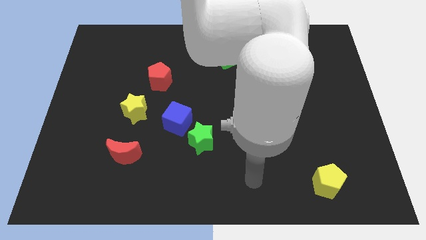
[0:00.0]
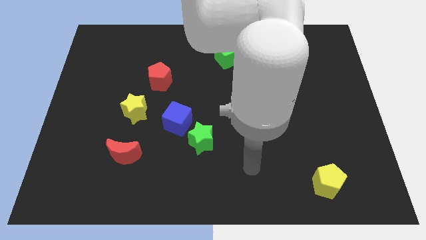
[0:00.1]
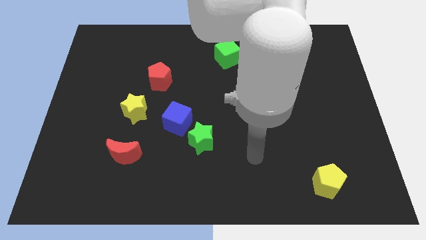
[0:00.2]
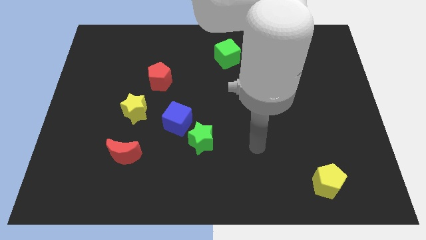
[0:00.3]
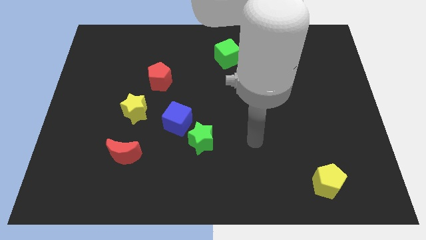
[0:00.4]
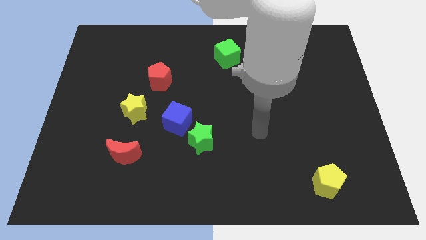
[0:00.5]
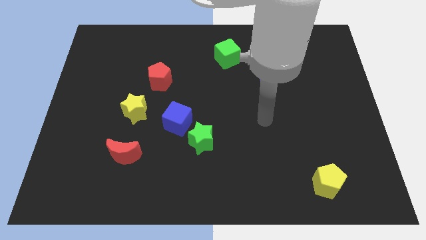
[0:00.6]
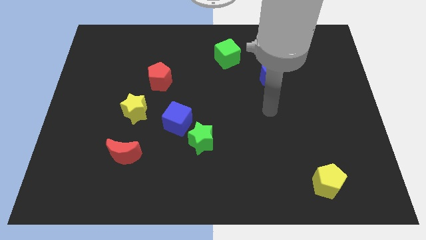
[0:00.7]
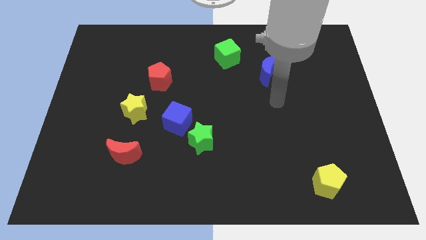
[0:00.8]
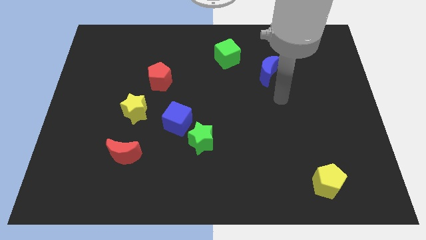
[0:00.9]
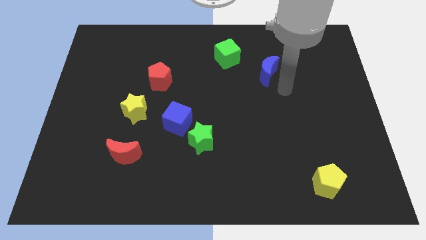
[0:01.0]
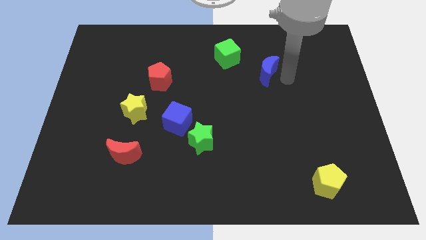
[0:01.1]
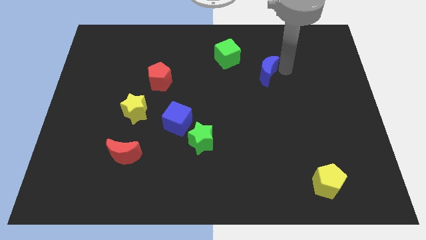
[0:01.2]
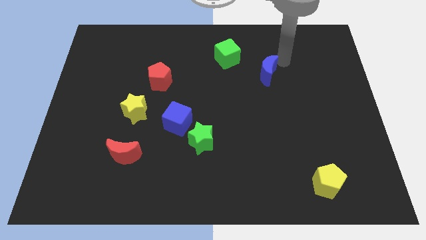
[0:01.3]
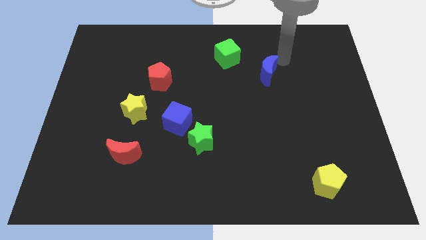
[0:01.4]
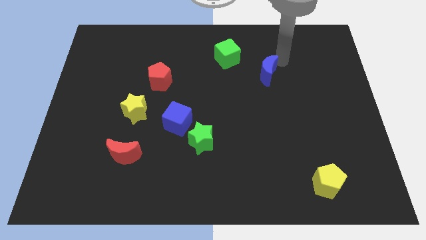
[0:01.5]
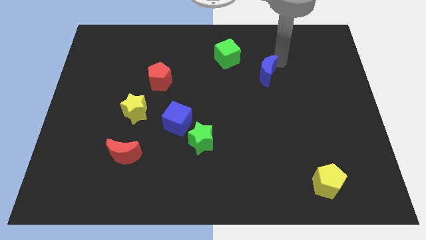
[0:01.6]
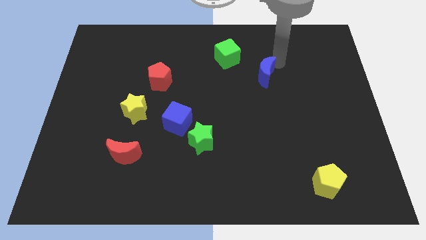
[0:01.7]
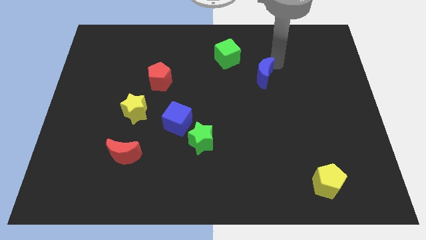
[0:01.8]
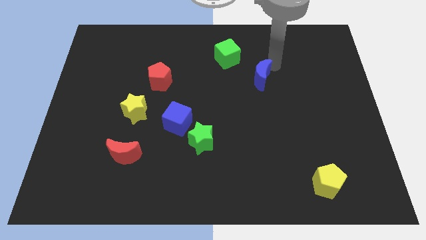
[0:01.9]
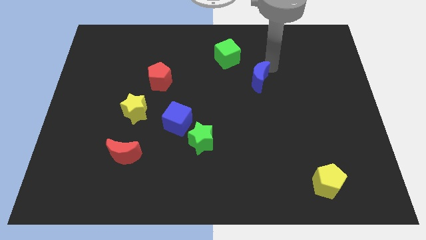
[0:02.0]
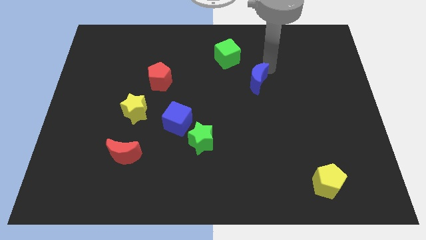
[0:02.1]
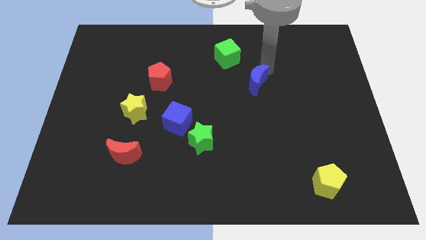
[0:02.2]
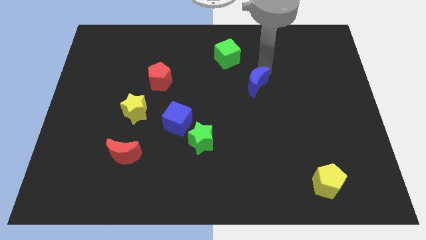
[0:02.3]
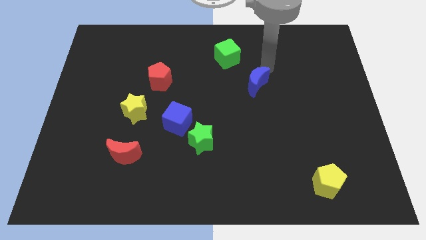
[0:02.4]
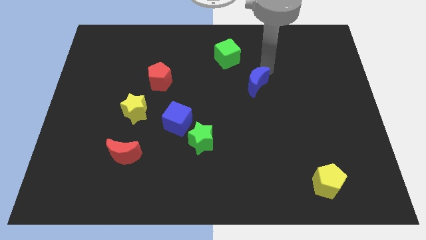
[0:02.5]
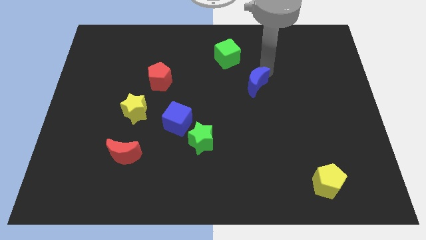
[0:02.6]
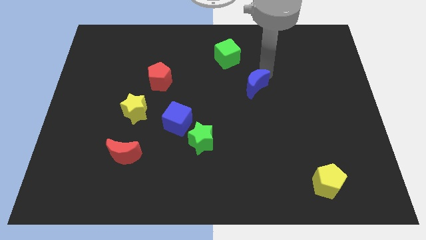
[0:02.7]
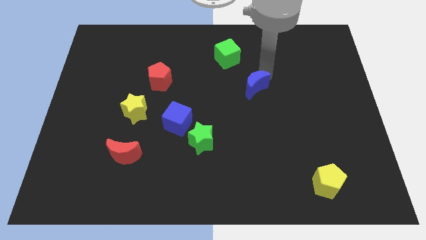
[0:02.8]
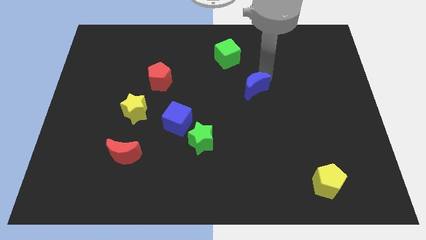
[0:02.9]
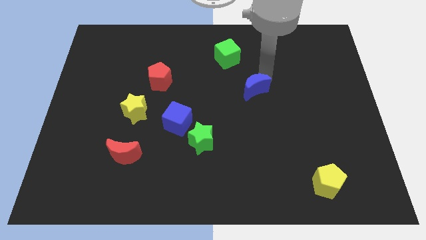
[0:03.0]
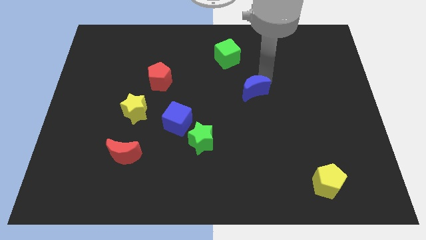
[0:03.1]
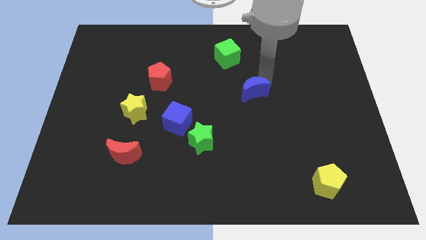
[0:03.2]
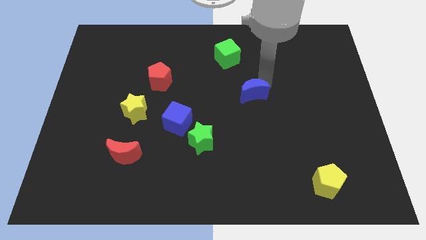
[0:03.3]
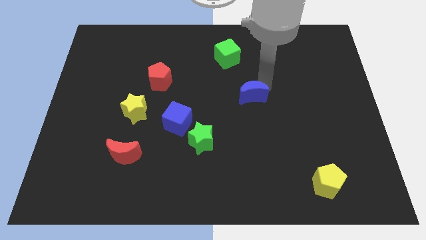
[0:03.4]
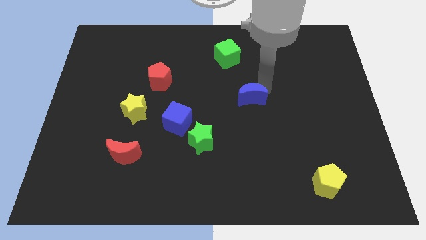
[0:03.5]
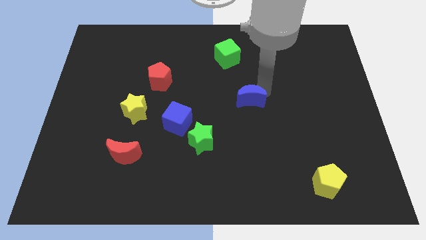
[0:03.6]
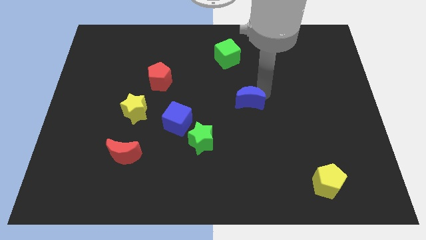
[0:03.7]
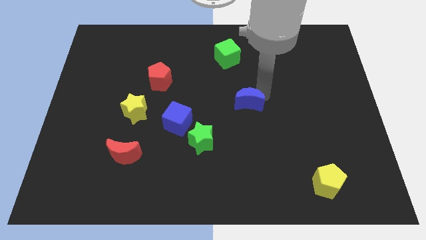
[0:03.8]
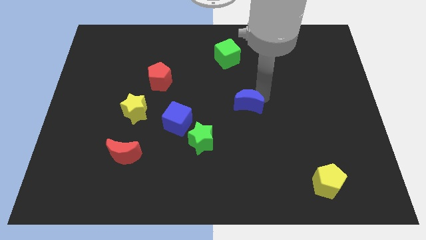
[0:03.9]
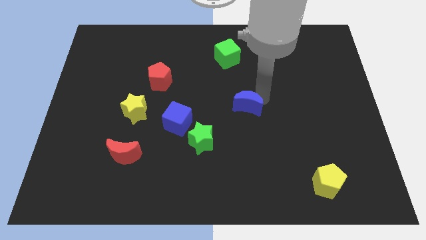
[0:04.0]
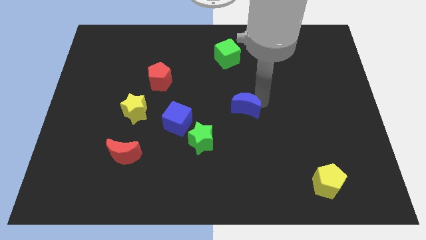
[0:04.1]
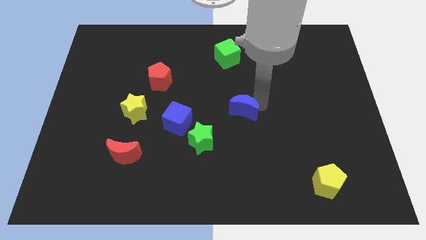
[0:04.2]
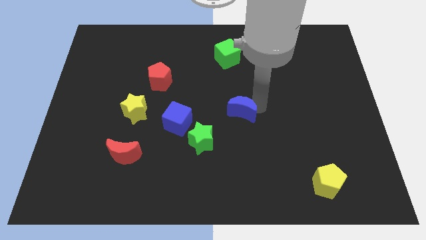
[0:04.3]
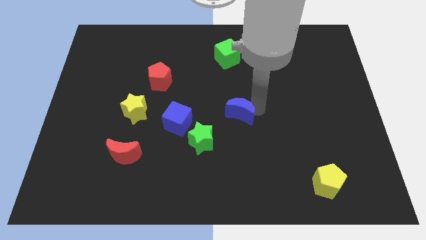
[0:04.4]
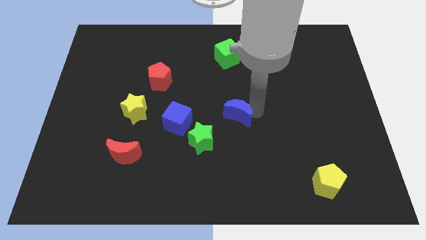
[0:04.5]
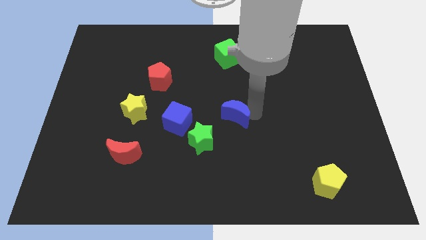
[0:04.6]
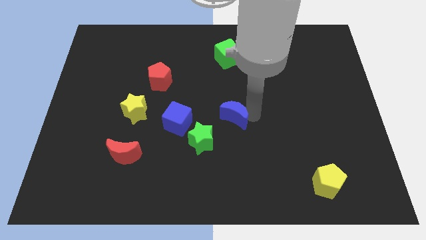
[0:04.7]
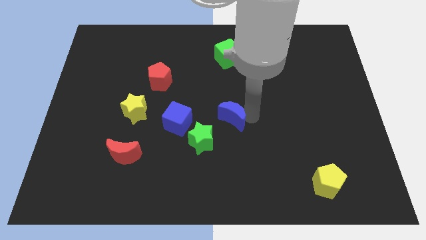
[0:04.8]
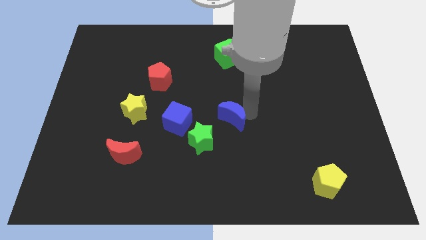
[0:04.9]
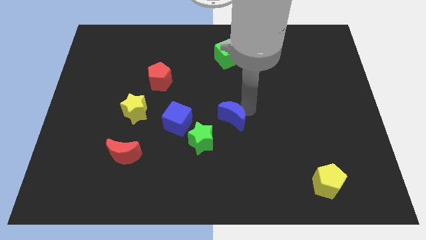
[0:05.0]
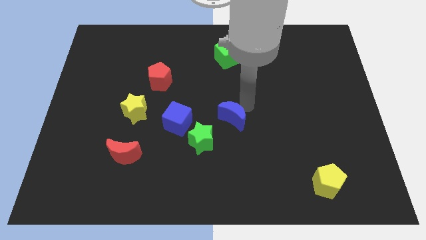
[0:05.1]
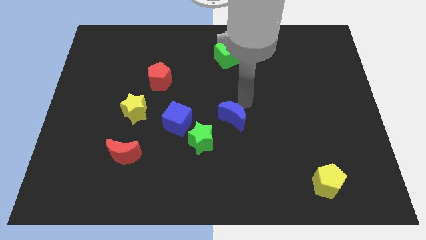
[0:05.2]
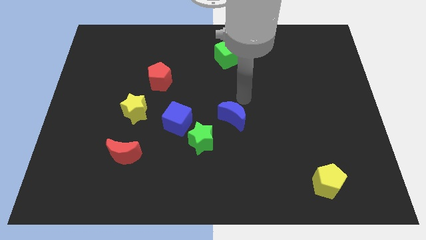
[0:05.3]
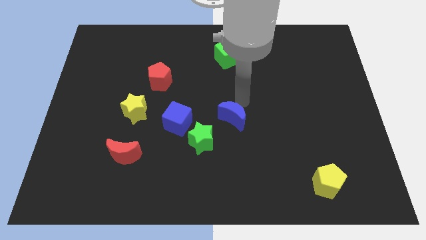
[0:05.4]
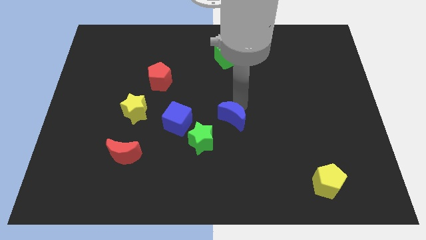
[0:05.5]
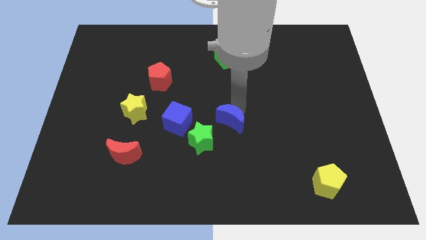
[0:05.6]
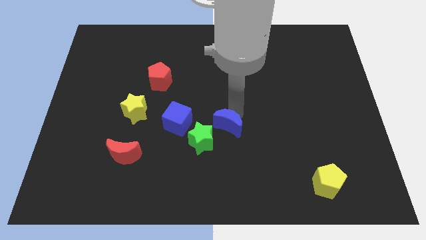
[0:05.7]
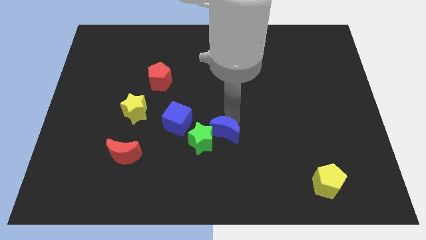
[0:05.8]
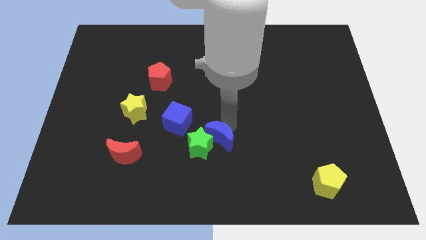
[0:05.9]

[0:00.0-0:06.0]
slide the blue moon down and then to the left

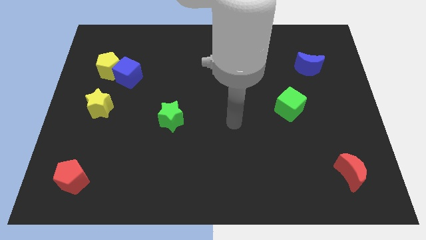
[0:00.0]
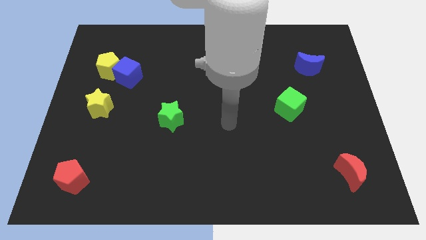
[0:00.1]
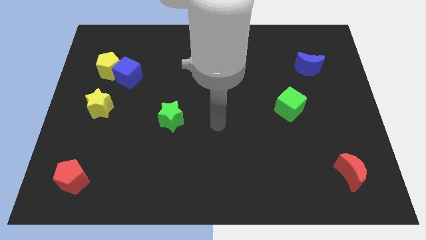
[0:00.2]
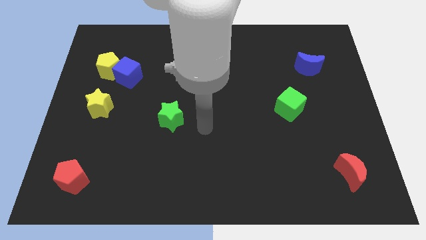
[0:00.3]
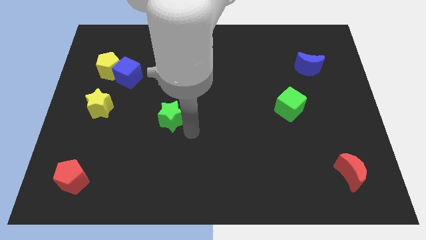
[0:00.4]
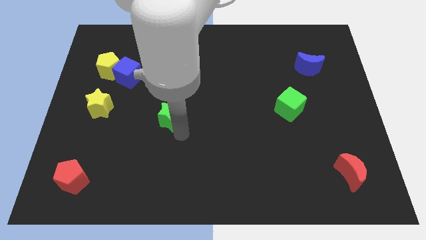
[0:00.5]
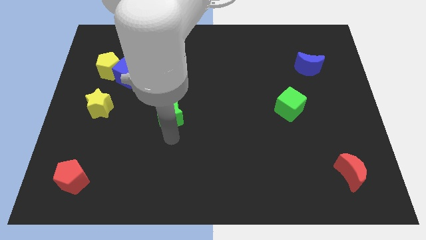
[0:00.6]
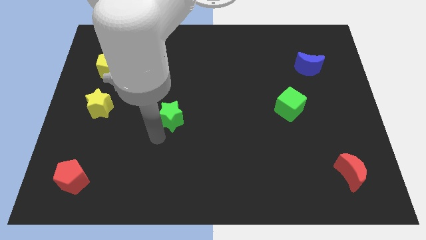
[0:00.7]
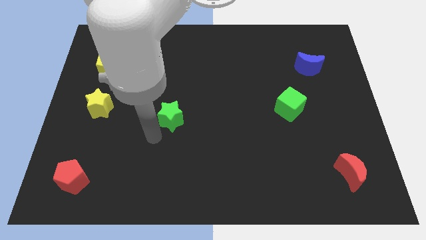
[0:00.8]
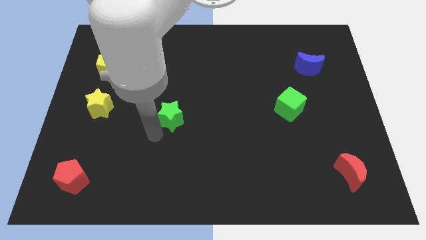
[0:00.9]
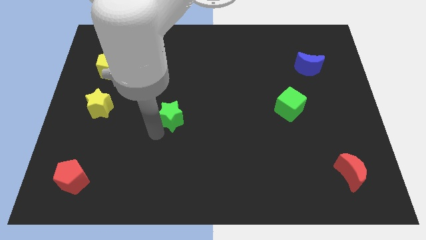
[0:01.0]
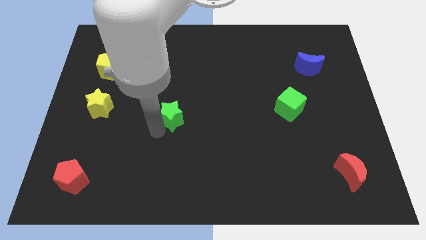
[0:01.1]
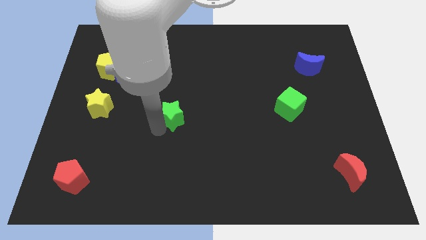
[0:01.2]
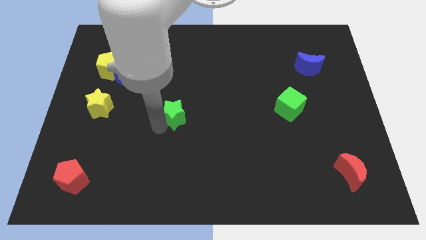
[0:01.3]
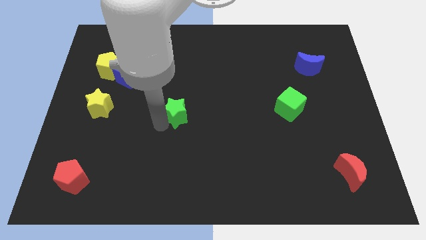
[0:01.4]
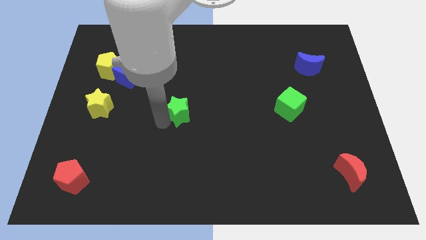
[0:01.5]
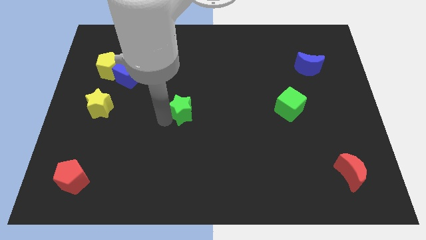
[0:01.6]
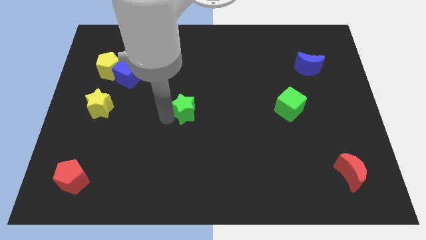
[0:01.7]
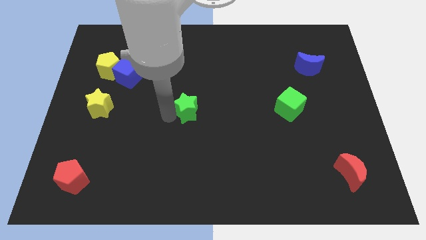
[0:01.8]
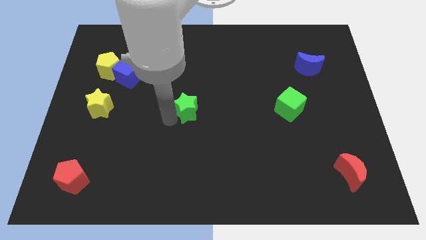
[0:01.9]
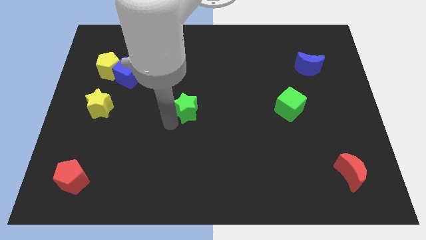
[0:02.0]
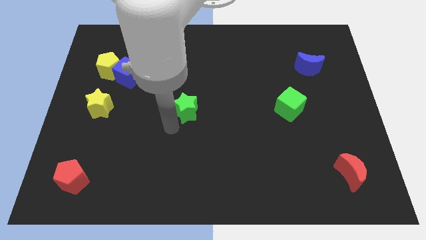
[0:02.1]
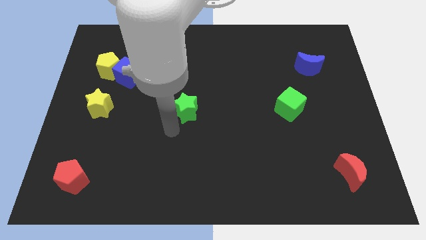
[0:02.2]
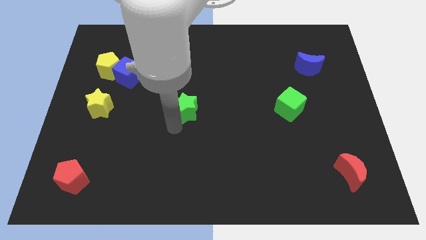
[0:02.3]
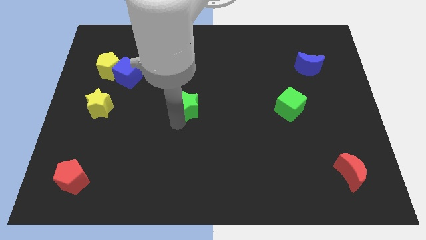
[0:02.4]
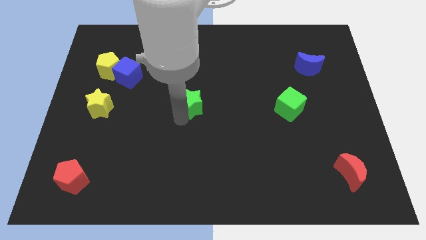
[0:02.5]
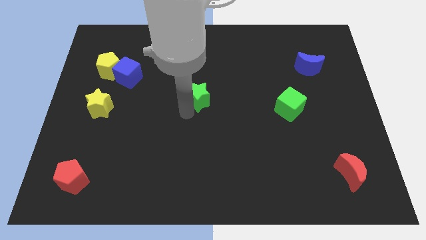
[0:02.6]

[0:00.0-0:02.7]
slightly move the green star up and then to the right
